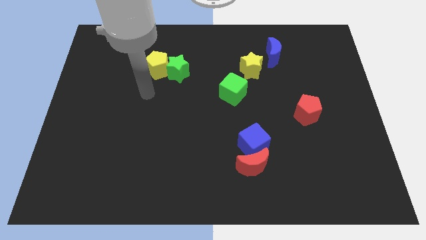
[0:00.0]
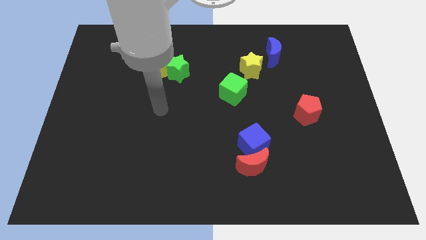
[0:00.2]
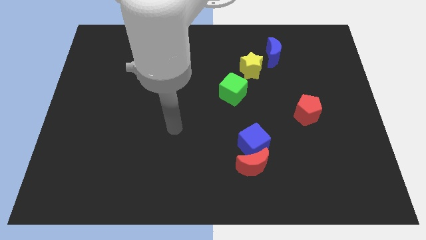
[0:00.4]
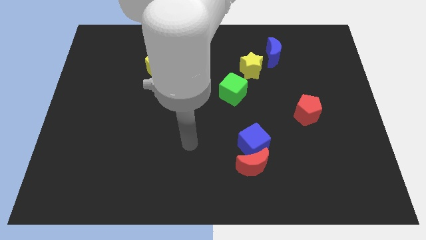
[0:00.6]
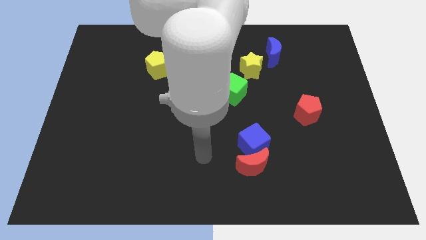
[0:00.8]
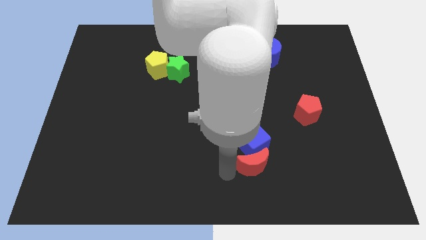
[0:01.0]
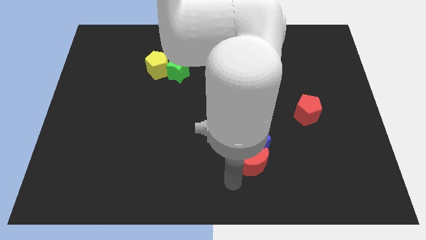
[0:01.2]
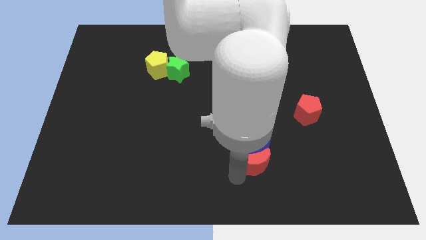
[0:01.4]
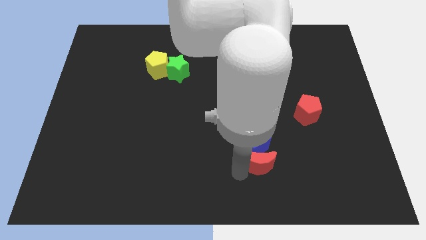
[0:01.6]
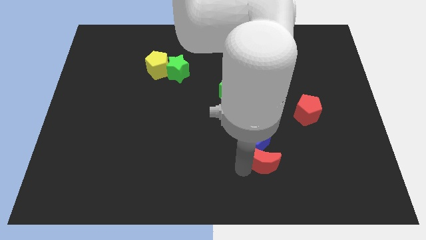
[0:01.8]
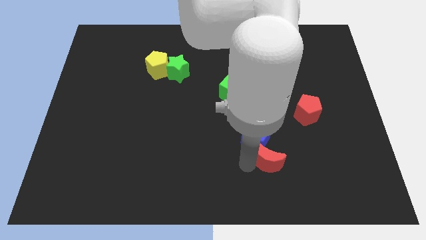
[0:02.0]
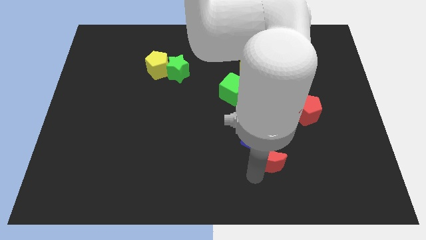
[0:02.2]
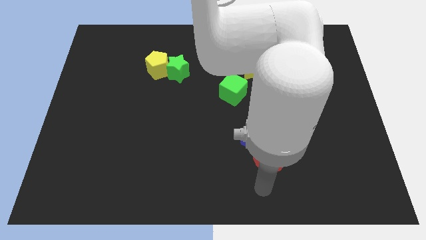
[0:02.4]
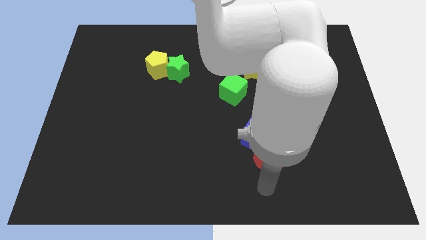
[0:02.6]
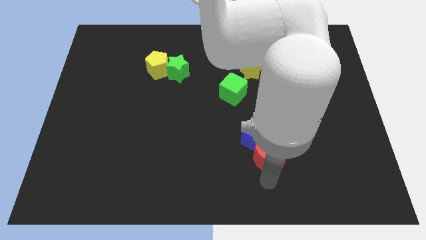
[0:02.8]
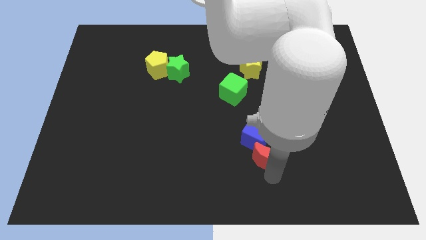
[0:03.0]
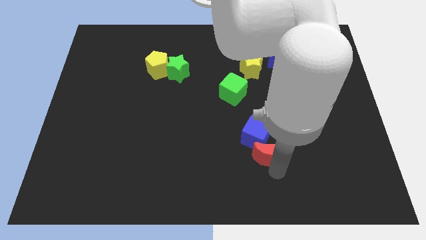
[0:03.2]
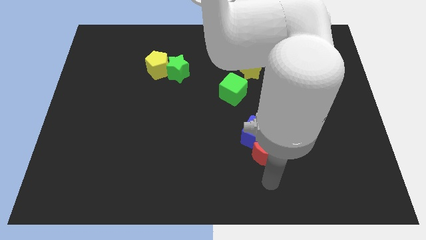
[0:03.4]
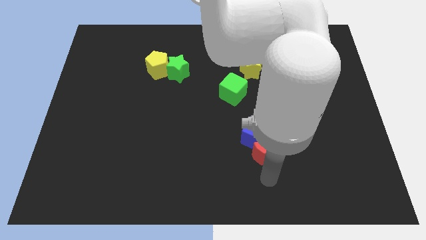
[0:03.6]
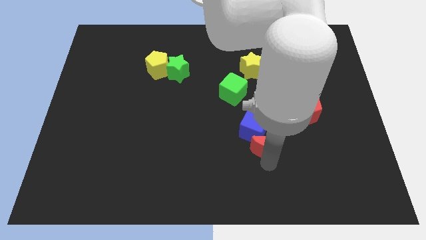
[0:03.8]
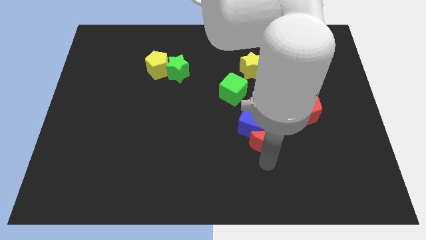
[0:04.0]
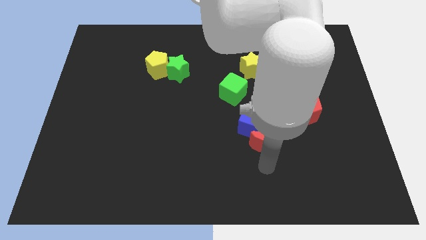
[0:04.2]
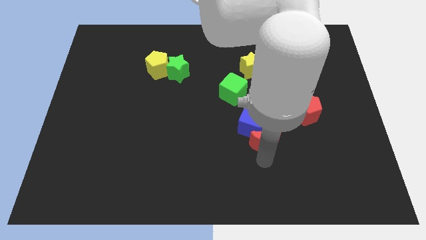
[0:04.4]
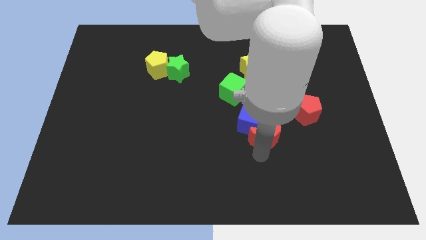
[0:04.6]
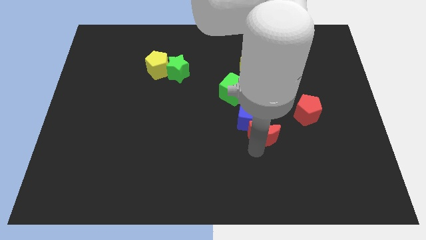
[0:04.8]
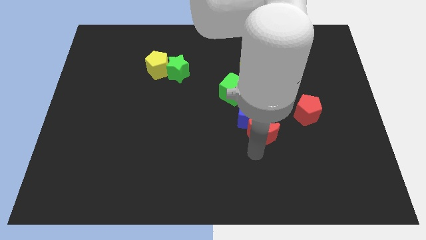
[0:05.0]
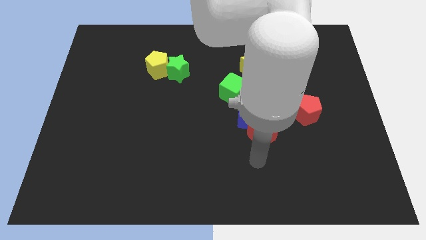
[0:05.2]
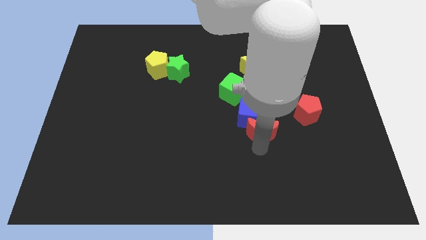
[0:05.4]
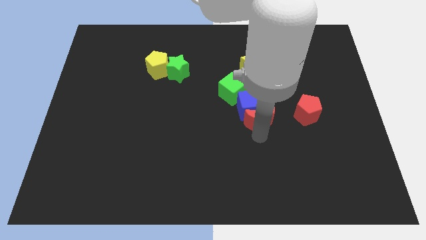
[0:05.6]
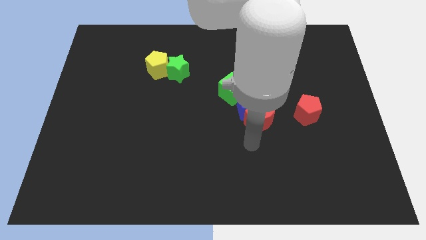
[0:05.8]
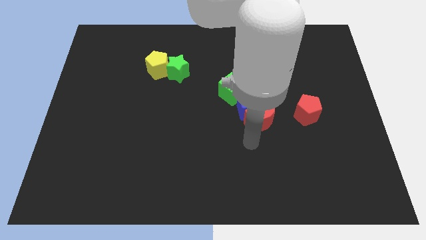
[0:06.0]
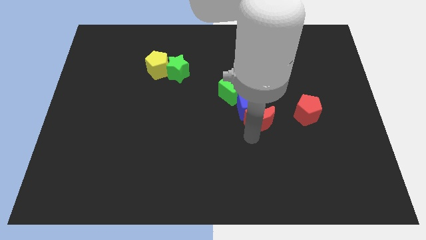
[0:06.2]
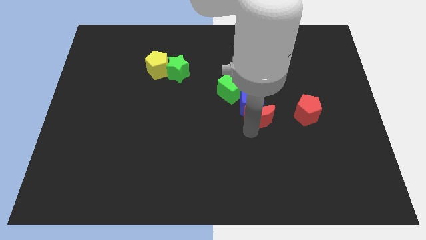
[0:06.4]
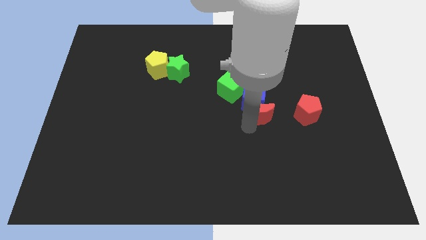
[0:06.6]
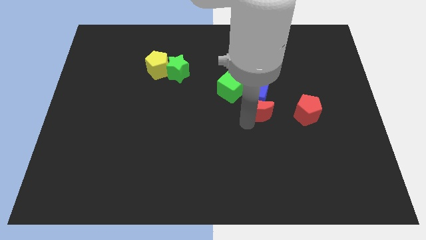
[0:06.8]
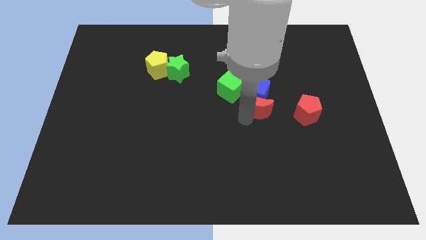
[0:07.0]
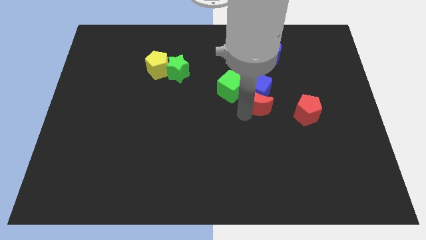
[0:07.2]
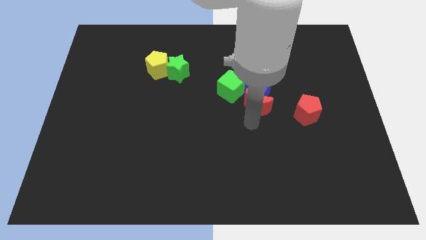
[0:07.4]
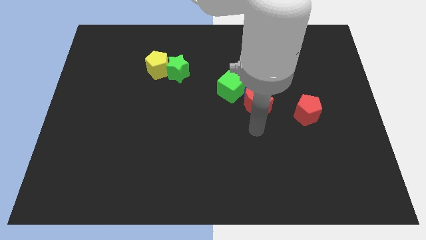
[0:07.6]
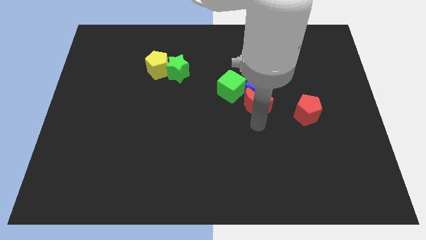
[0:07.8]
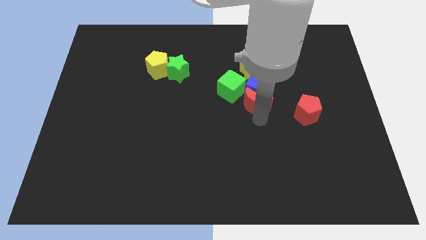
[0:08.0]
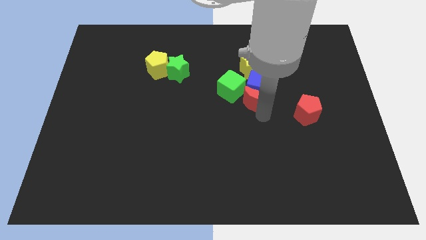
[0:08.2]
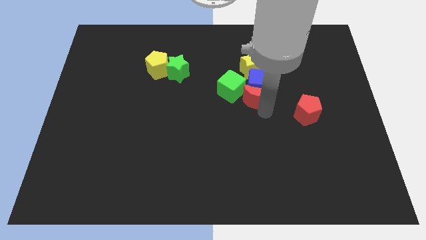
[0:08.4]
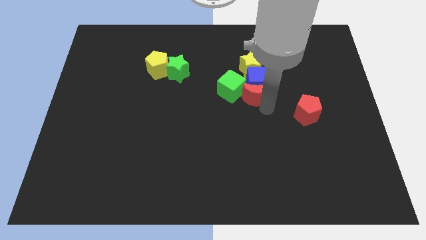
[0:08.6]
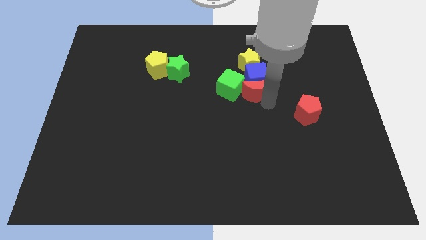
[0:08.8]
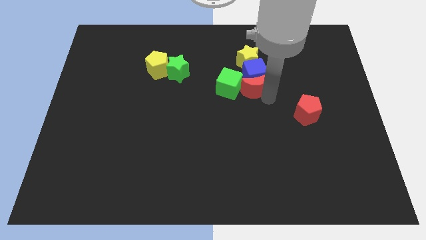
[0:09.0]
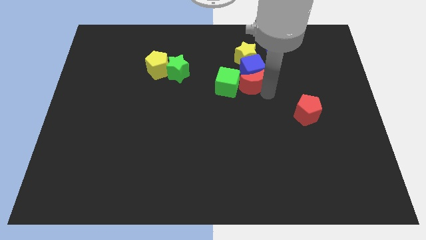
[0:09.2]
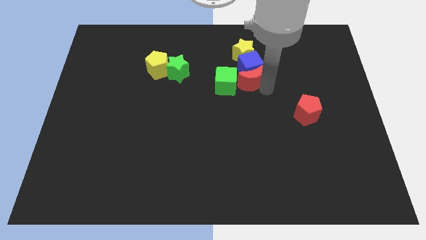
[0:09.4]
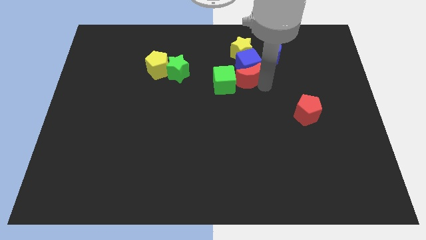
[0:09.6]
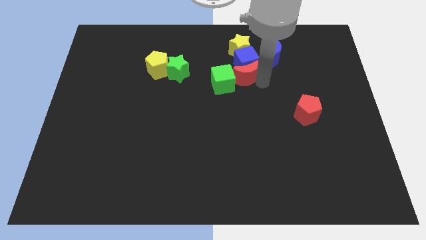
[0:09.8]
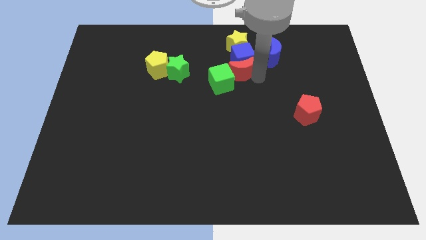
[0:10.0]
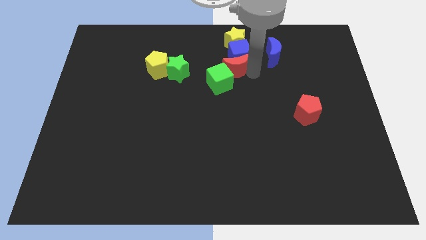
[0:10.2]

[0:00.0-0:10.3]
move the red moon to the top side of the green cube

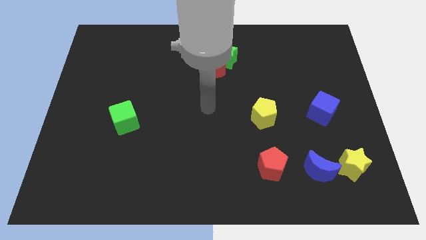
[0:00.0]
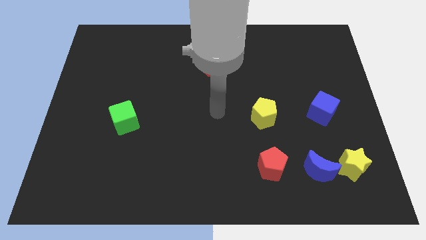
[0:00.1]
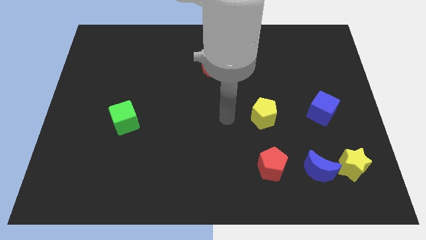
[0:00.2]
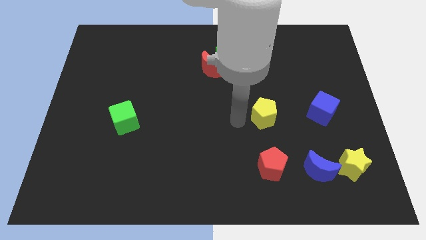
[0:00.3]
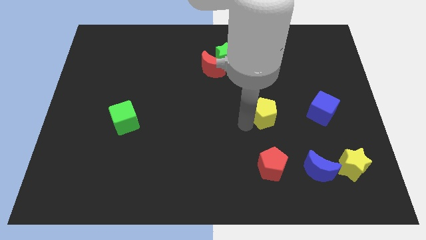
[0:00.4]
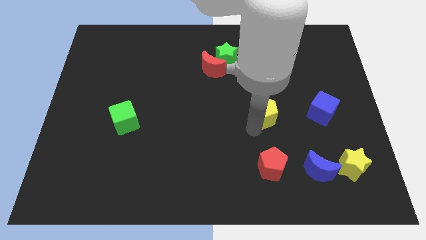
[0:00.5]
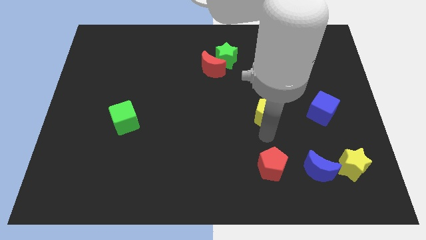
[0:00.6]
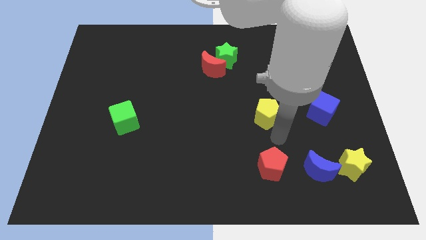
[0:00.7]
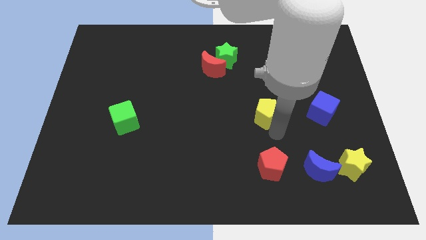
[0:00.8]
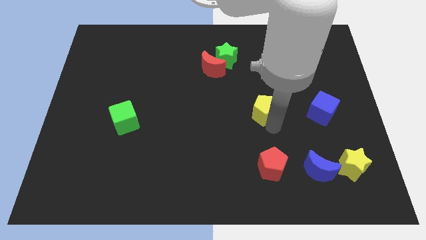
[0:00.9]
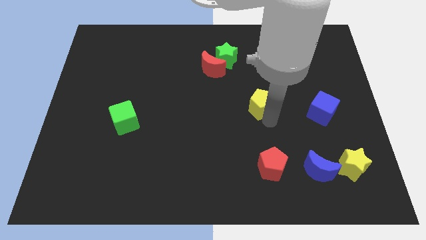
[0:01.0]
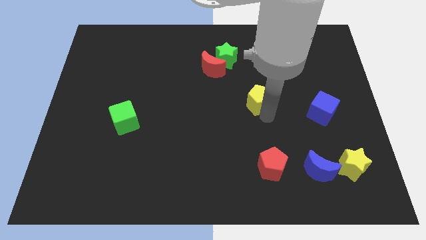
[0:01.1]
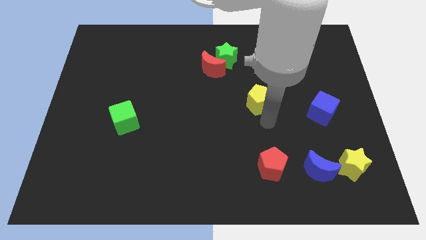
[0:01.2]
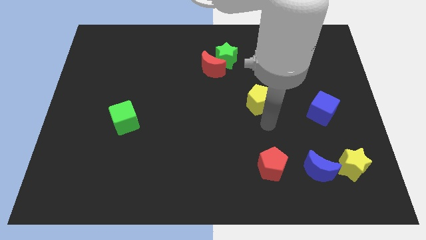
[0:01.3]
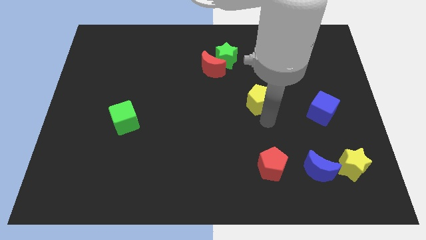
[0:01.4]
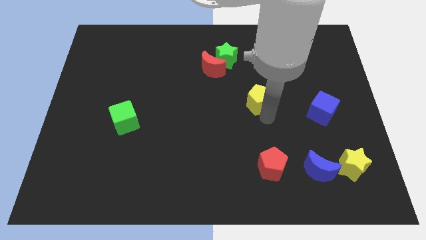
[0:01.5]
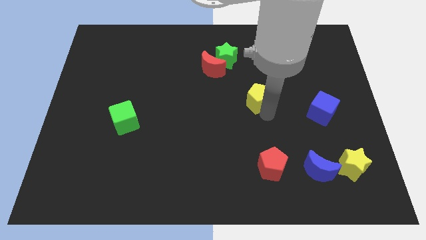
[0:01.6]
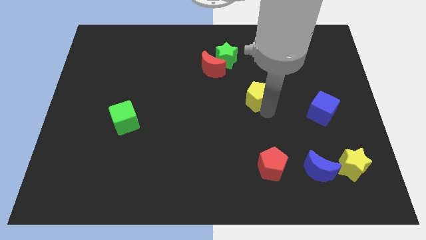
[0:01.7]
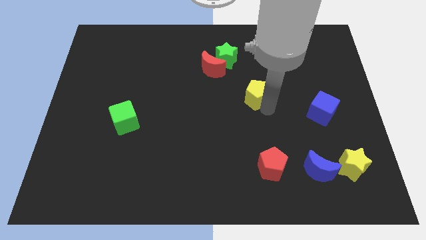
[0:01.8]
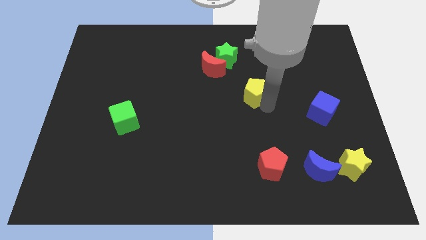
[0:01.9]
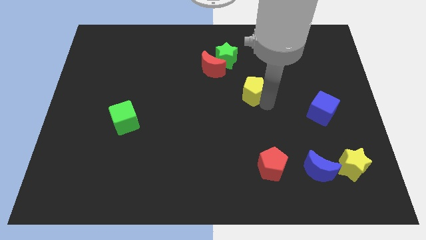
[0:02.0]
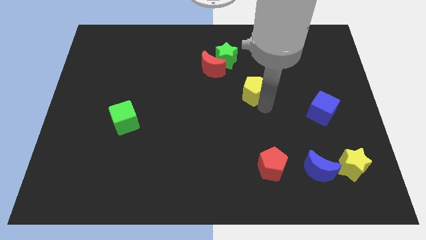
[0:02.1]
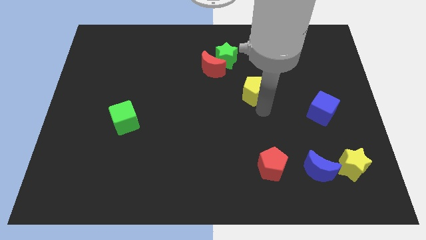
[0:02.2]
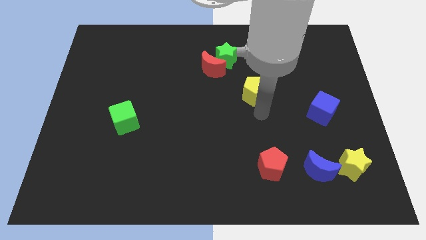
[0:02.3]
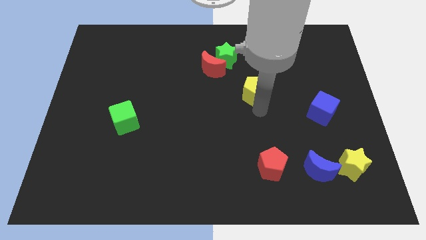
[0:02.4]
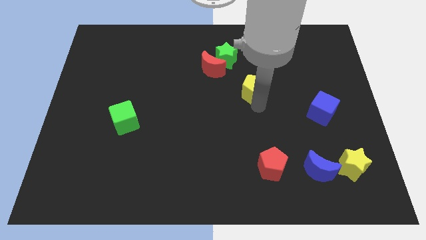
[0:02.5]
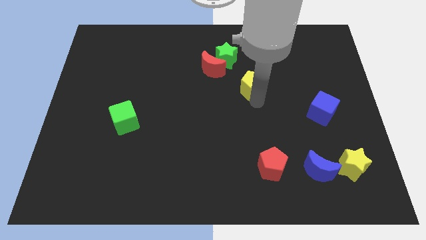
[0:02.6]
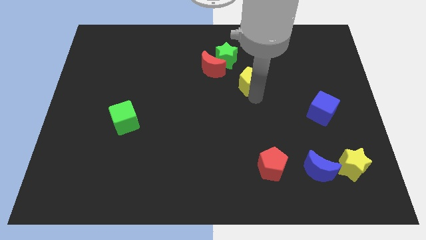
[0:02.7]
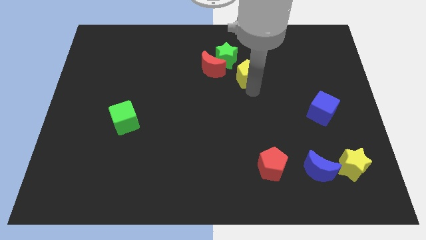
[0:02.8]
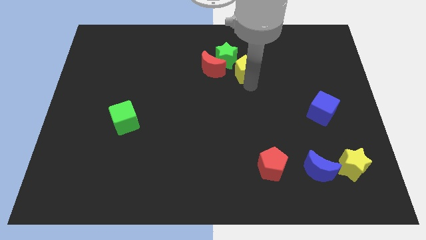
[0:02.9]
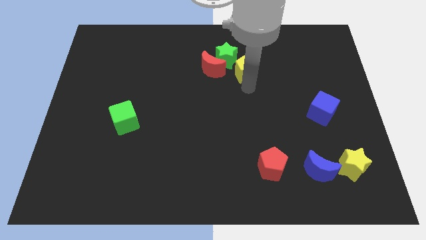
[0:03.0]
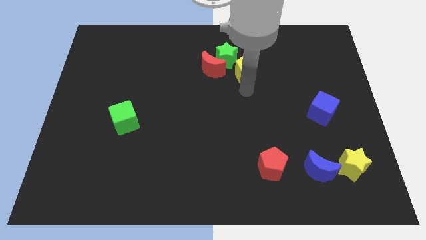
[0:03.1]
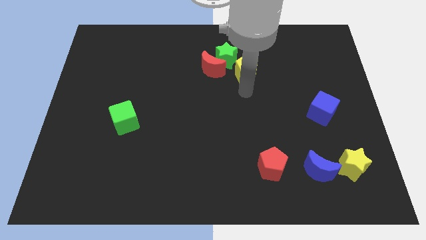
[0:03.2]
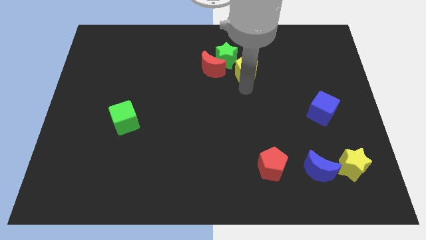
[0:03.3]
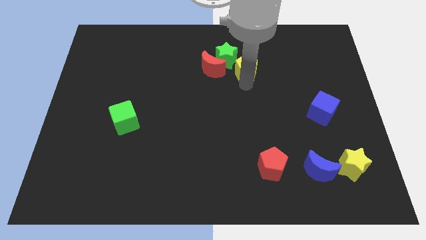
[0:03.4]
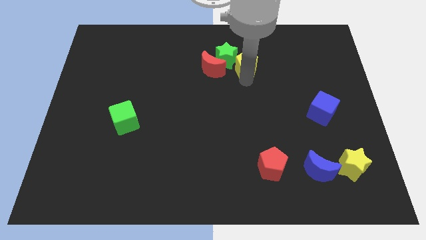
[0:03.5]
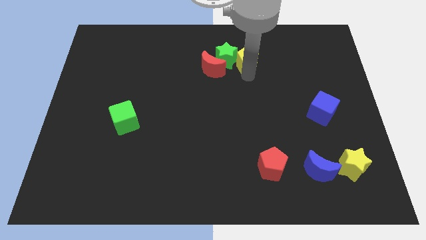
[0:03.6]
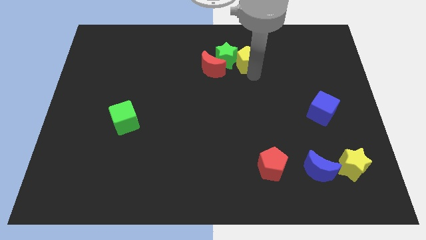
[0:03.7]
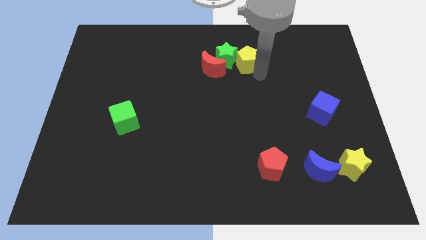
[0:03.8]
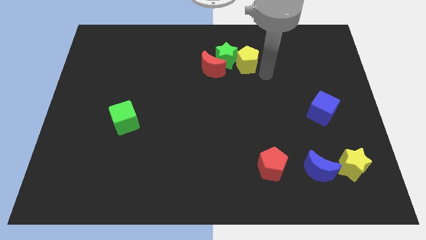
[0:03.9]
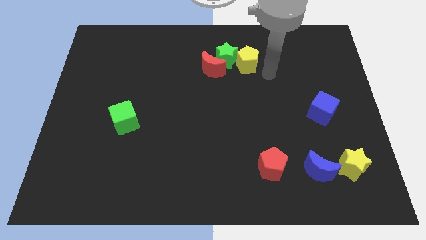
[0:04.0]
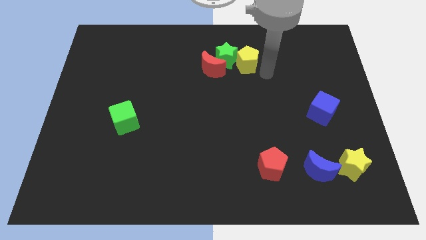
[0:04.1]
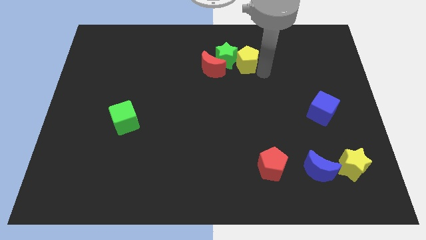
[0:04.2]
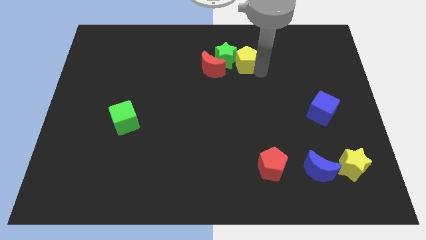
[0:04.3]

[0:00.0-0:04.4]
push the yellow pentagon to the top right of the red moon
